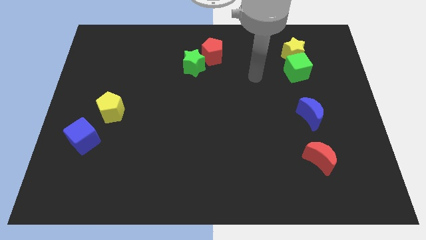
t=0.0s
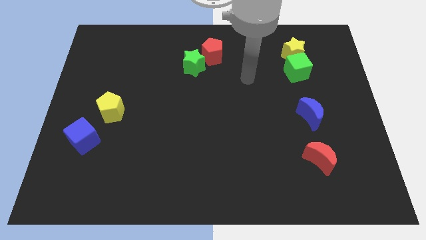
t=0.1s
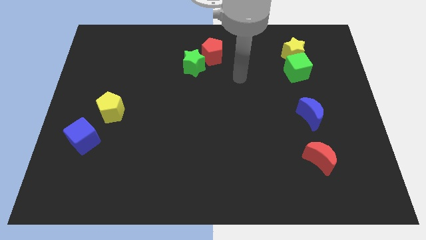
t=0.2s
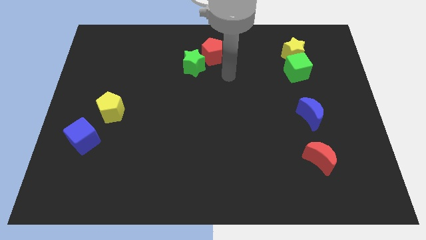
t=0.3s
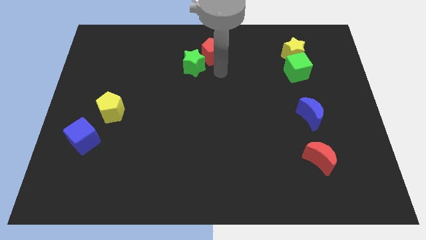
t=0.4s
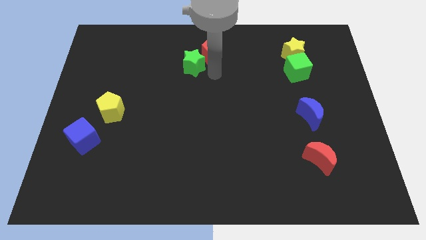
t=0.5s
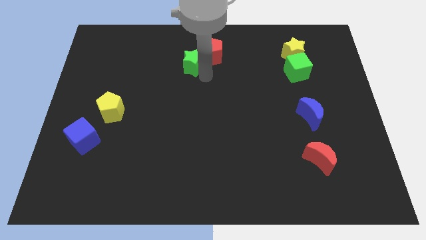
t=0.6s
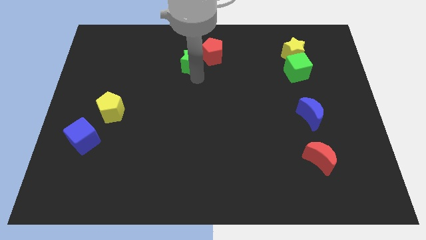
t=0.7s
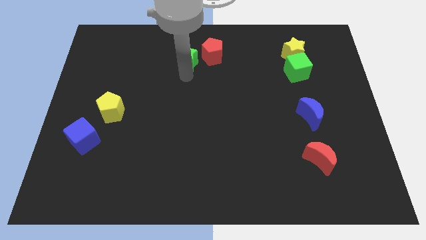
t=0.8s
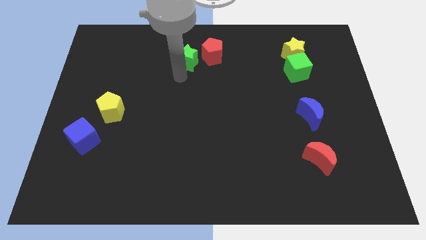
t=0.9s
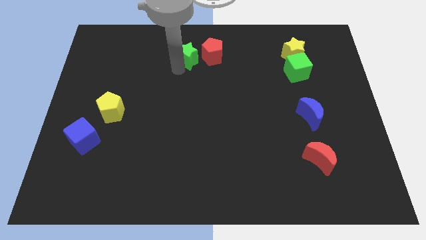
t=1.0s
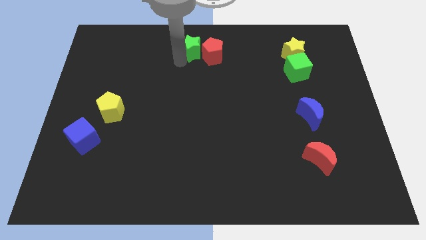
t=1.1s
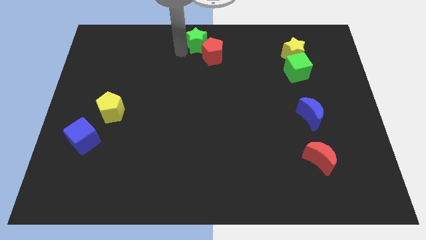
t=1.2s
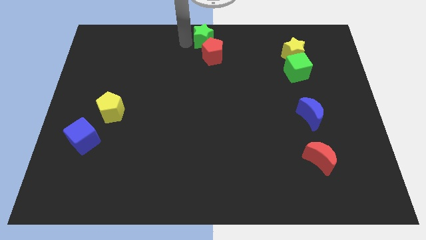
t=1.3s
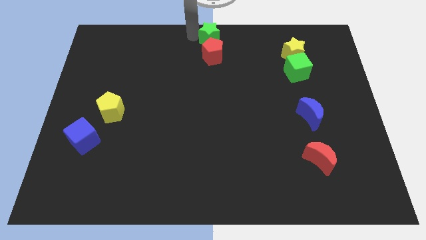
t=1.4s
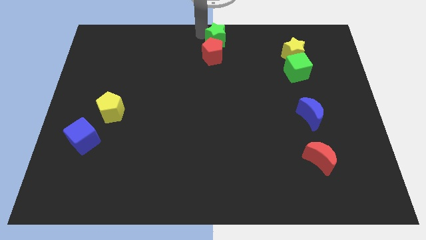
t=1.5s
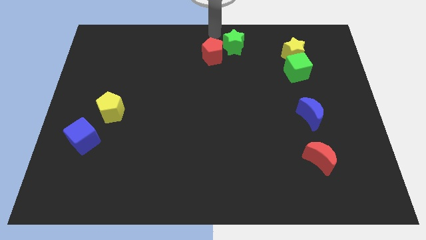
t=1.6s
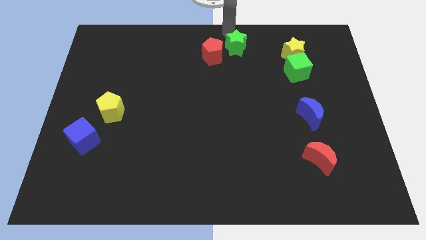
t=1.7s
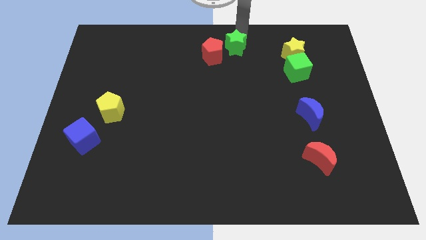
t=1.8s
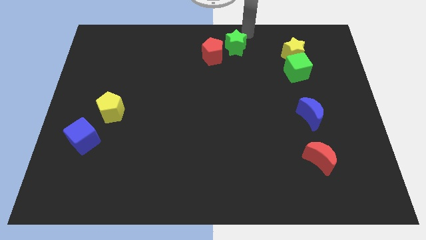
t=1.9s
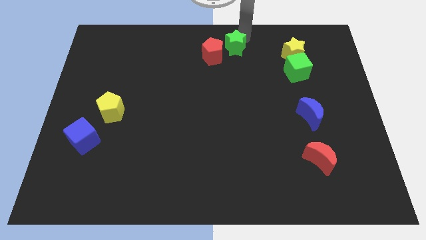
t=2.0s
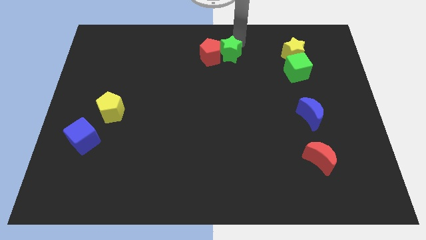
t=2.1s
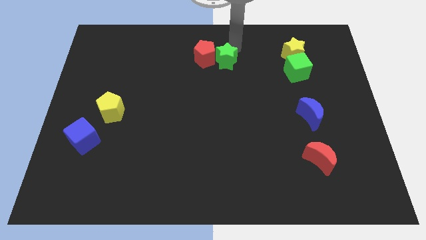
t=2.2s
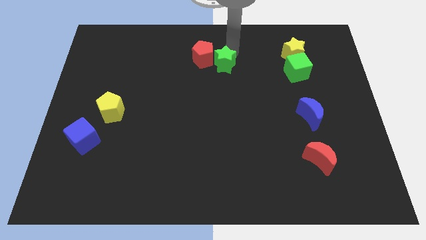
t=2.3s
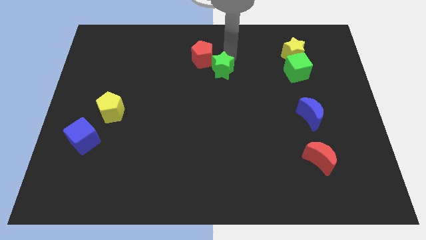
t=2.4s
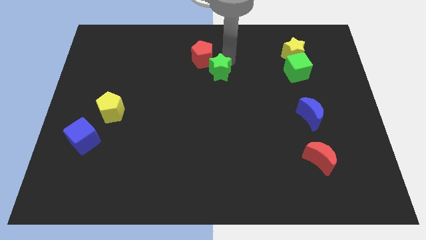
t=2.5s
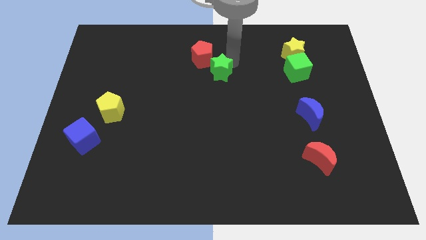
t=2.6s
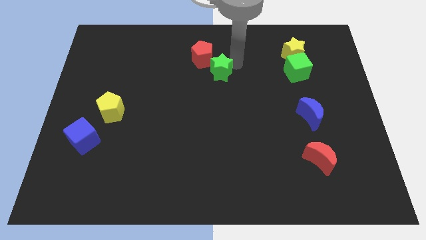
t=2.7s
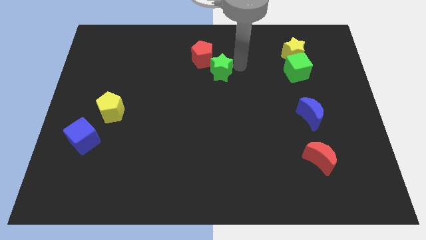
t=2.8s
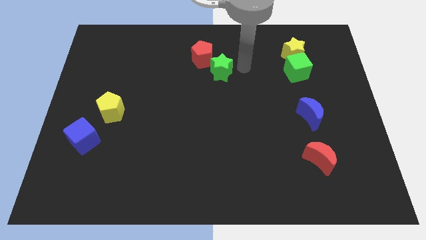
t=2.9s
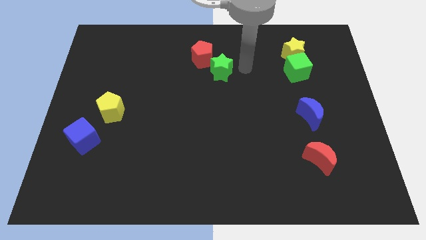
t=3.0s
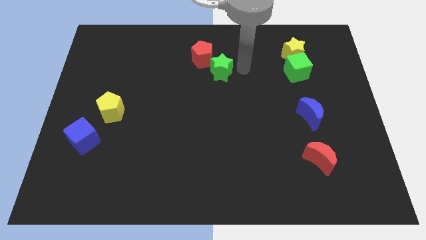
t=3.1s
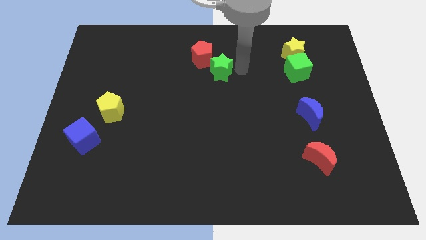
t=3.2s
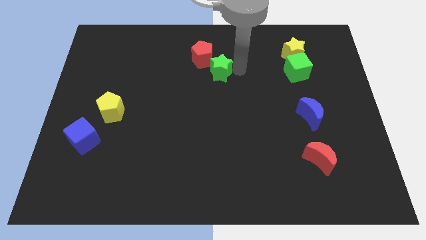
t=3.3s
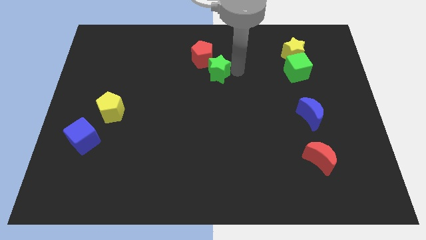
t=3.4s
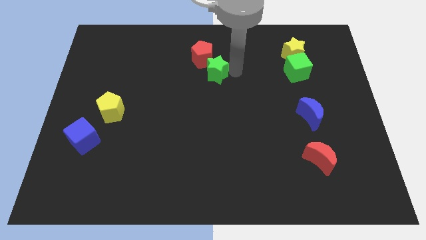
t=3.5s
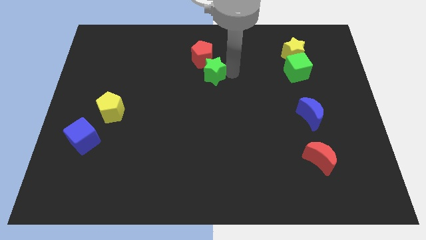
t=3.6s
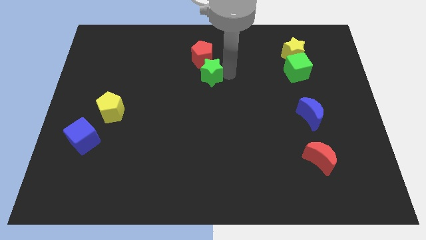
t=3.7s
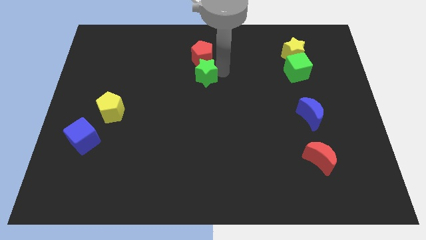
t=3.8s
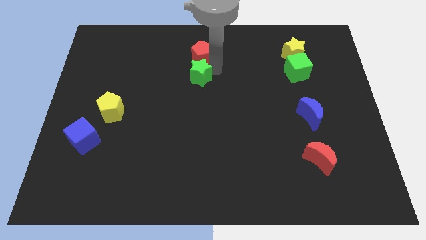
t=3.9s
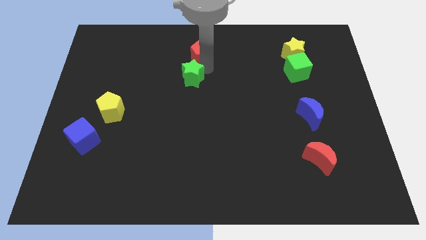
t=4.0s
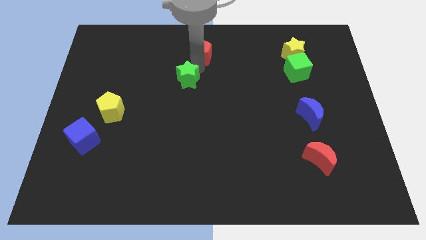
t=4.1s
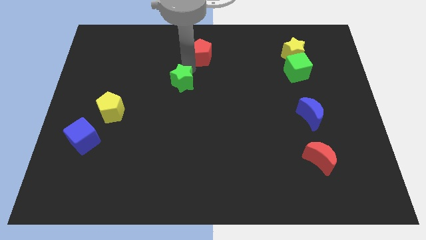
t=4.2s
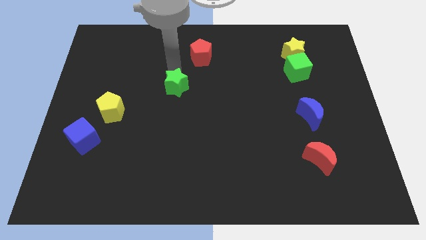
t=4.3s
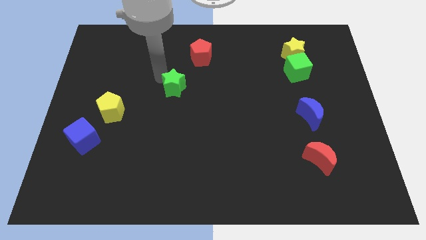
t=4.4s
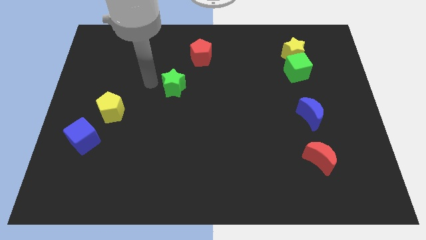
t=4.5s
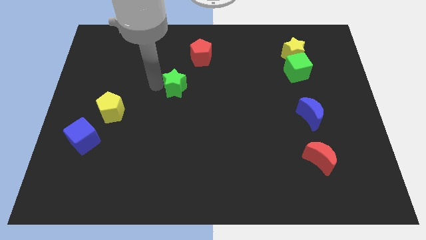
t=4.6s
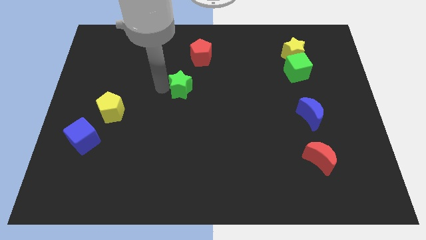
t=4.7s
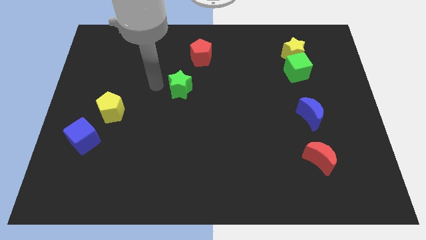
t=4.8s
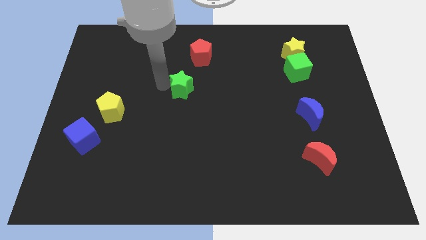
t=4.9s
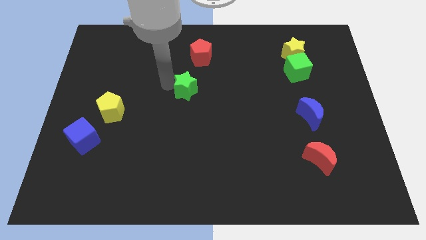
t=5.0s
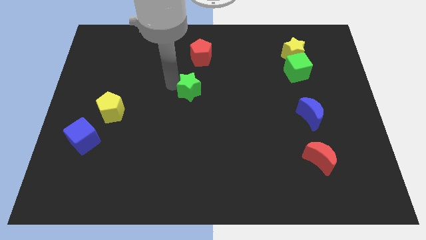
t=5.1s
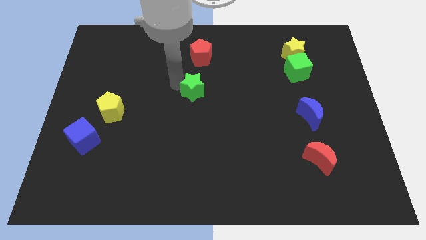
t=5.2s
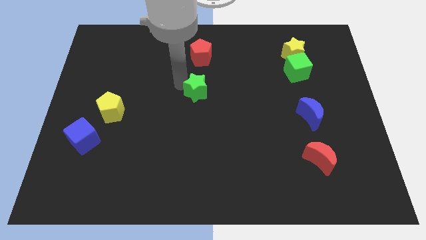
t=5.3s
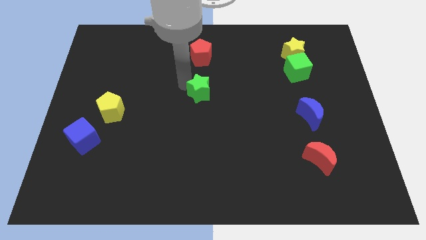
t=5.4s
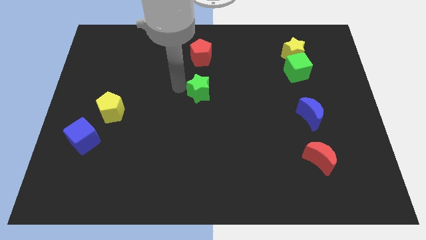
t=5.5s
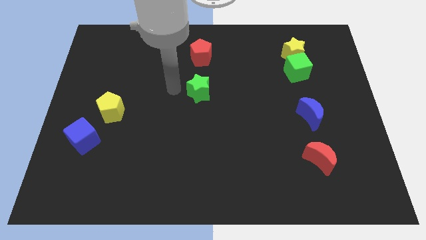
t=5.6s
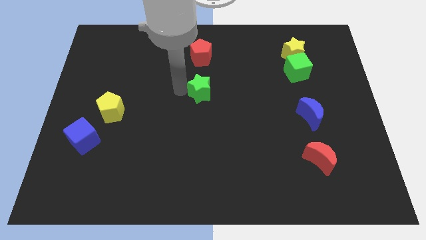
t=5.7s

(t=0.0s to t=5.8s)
slightly slide the green star down and then to the right

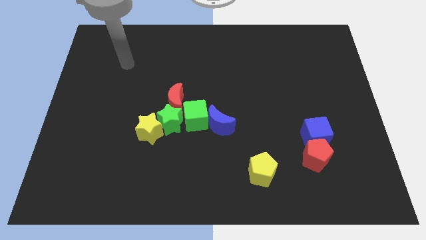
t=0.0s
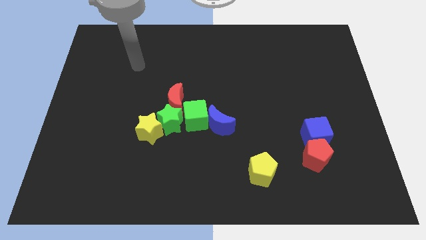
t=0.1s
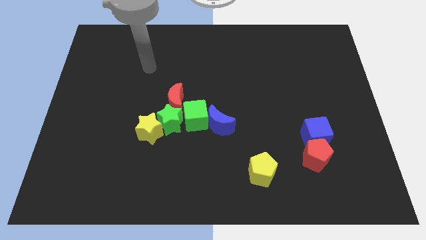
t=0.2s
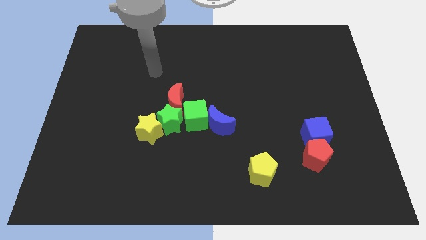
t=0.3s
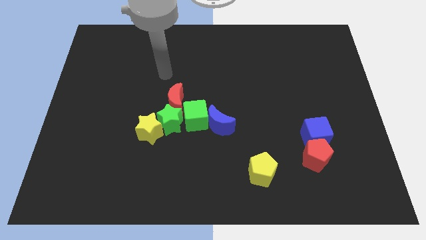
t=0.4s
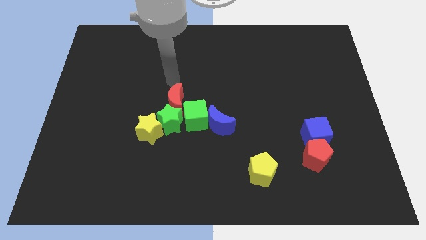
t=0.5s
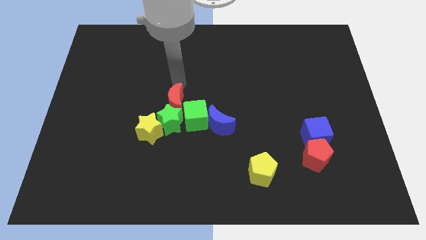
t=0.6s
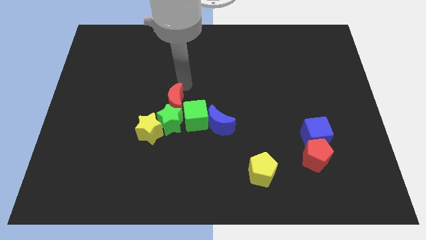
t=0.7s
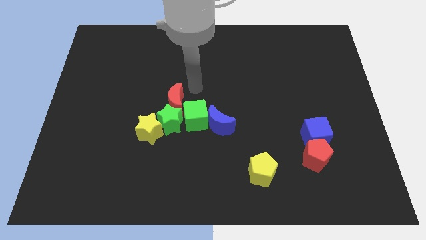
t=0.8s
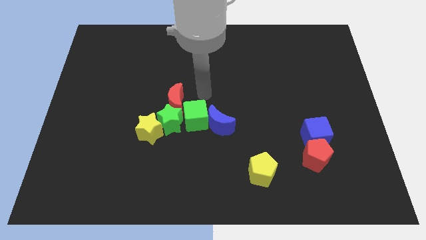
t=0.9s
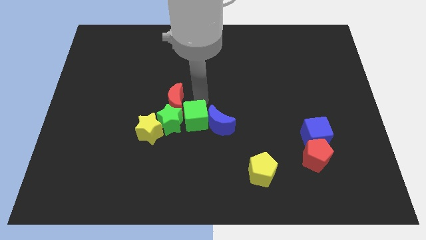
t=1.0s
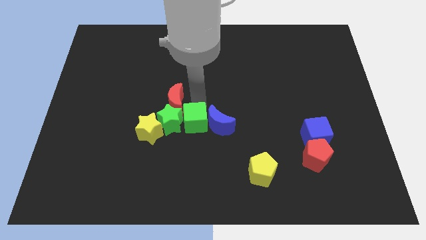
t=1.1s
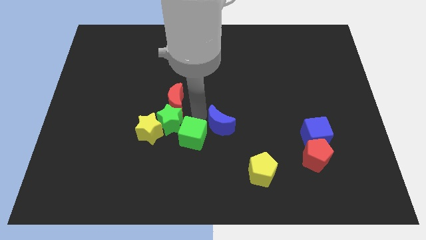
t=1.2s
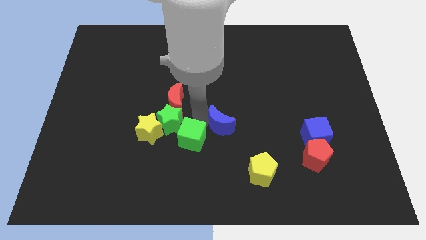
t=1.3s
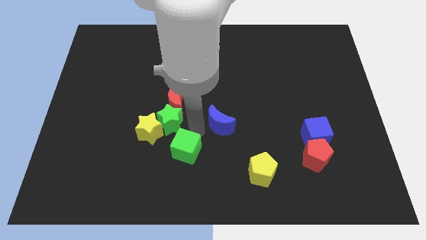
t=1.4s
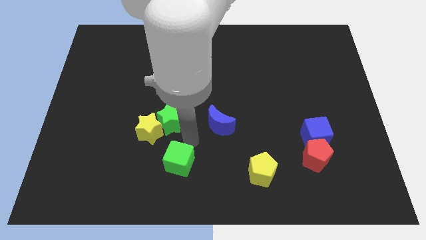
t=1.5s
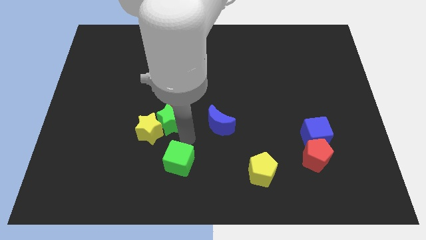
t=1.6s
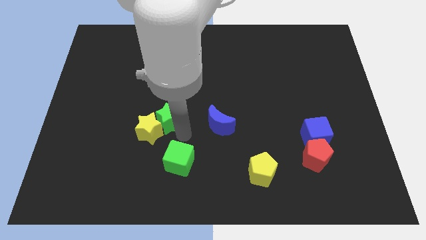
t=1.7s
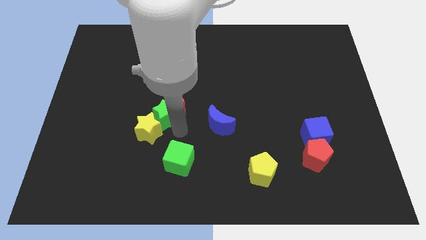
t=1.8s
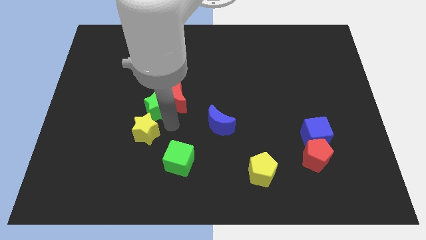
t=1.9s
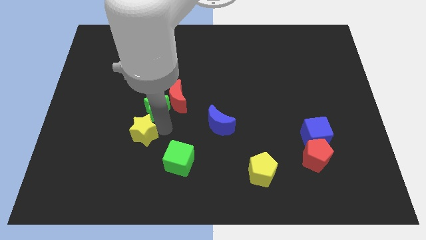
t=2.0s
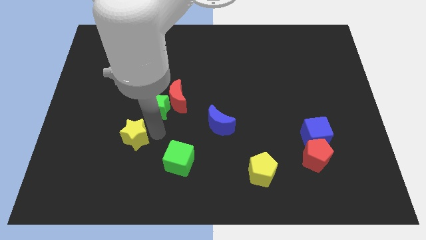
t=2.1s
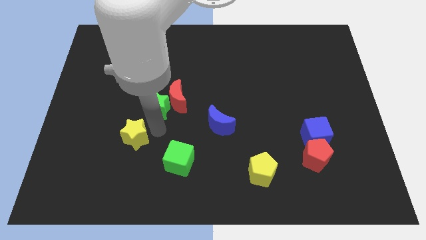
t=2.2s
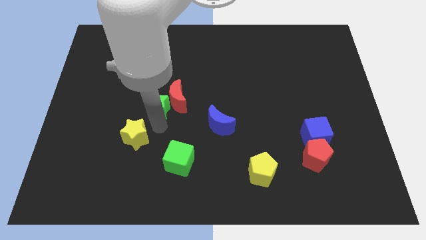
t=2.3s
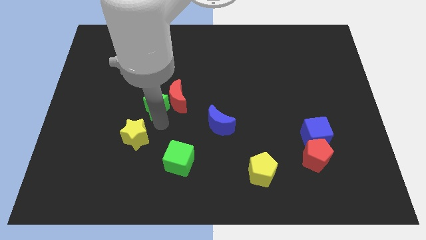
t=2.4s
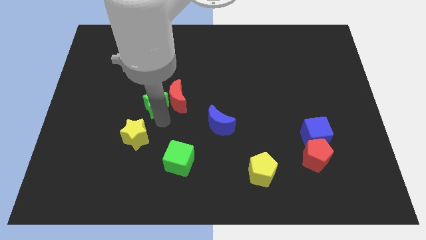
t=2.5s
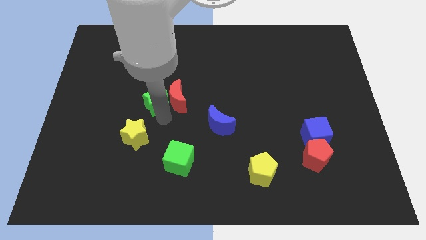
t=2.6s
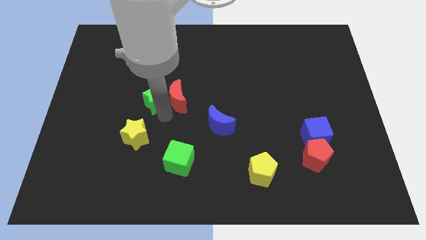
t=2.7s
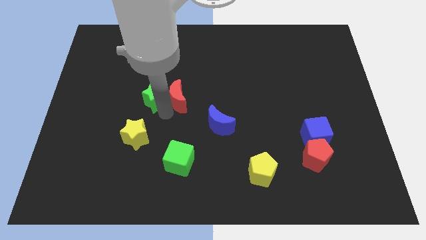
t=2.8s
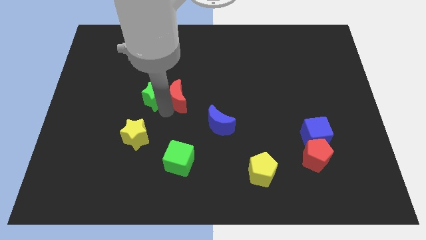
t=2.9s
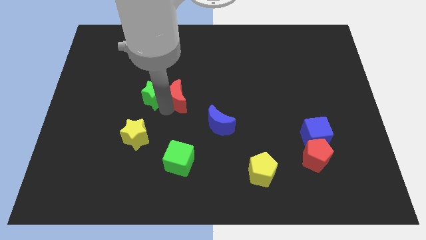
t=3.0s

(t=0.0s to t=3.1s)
move the green star a little up
